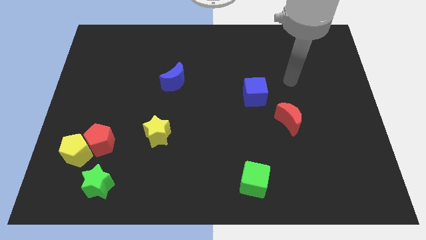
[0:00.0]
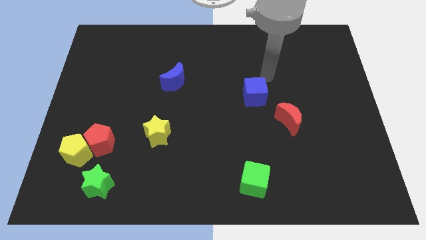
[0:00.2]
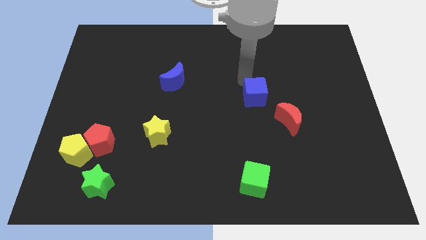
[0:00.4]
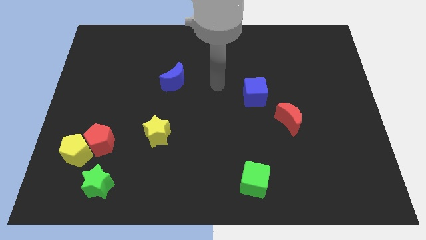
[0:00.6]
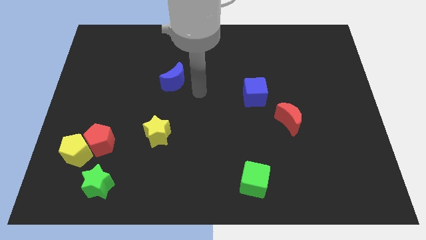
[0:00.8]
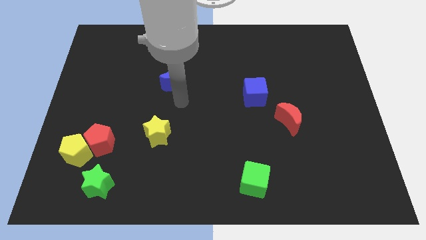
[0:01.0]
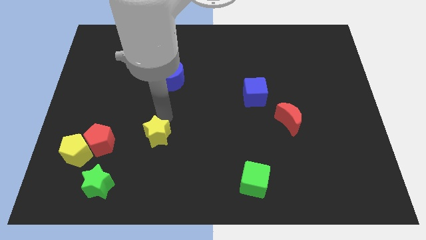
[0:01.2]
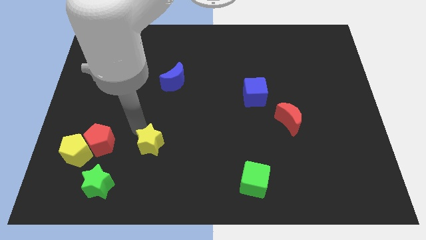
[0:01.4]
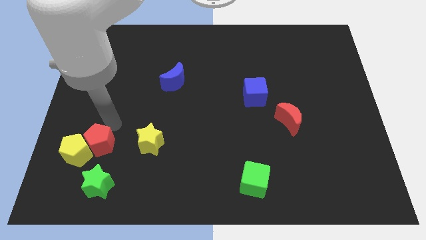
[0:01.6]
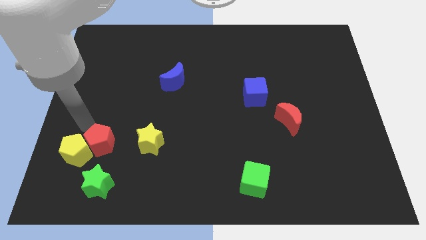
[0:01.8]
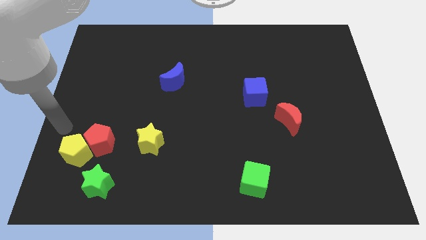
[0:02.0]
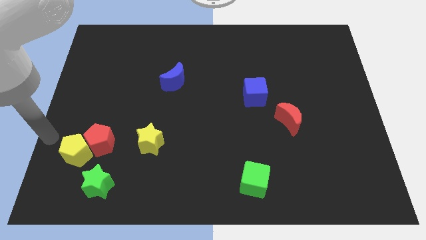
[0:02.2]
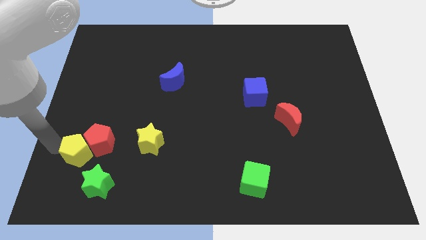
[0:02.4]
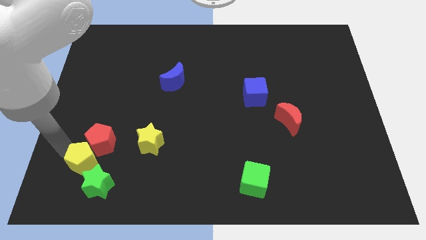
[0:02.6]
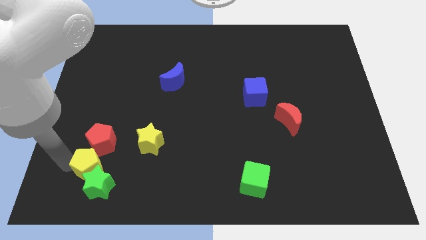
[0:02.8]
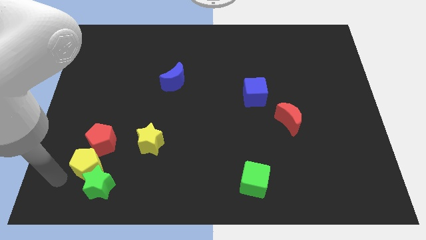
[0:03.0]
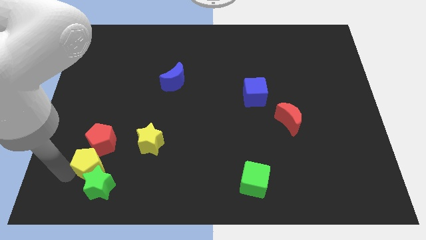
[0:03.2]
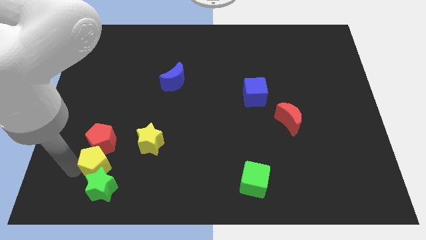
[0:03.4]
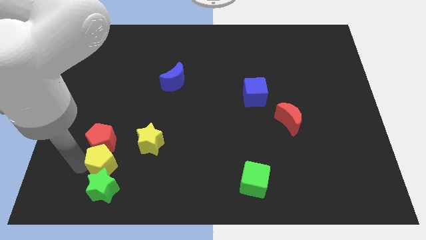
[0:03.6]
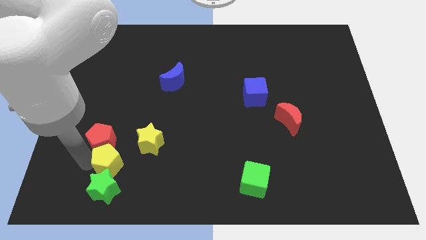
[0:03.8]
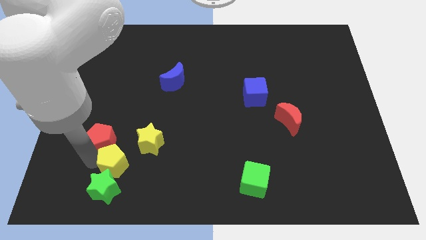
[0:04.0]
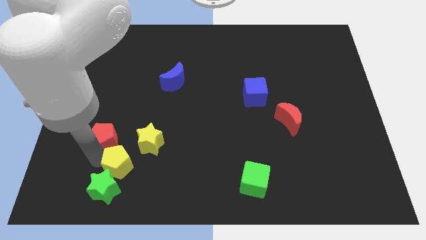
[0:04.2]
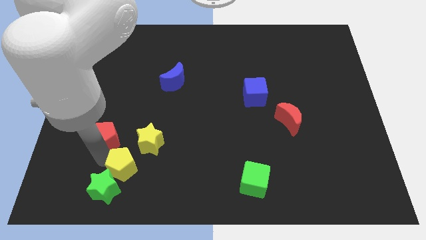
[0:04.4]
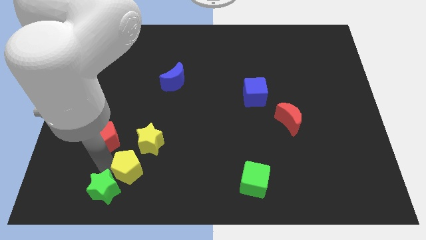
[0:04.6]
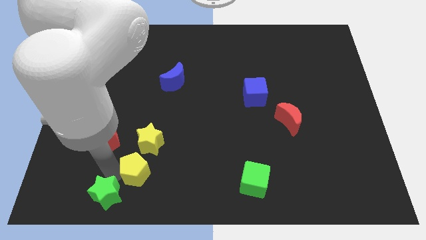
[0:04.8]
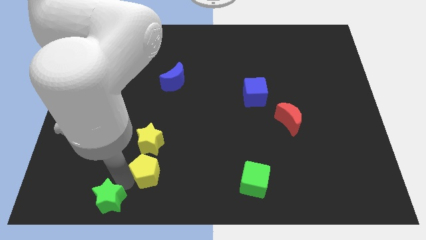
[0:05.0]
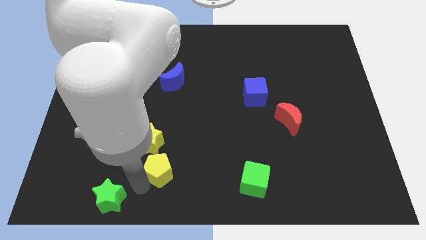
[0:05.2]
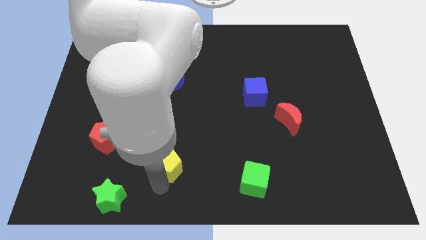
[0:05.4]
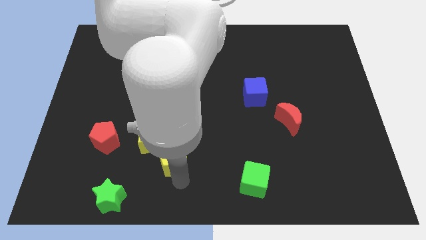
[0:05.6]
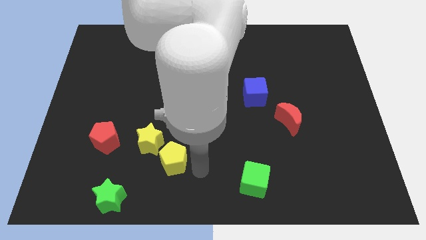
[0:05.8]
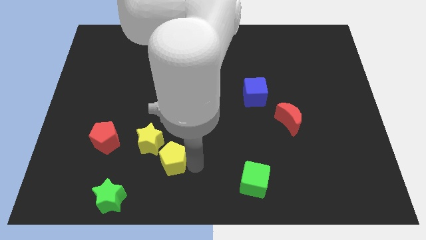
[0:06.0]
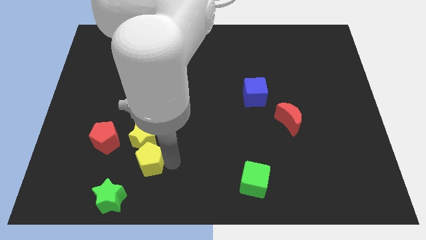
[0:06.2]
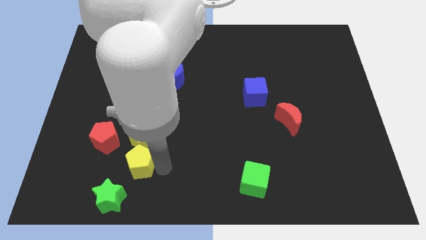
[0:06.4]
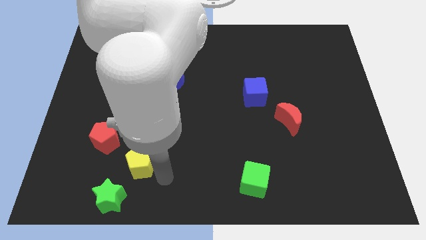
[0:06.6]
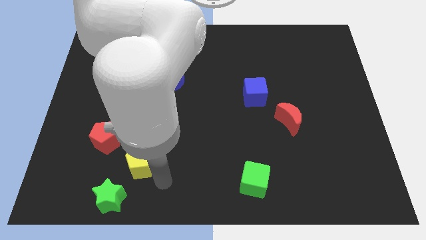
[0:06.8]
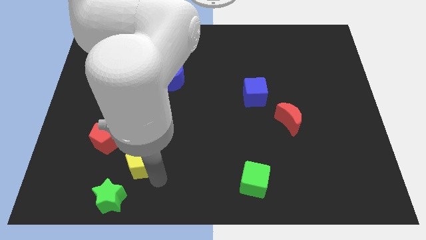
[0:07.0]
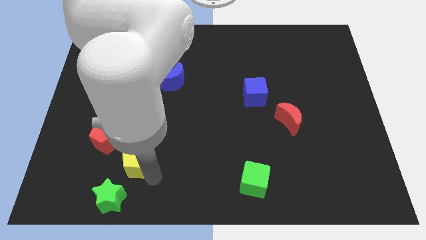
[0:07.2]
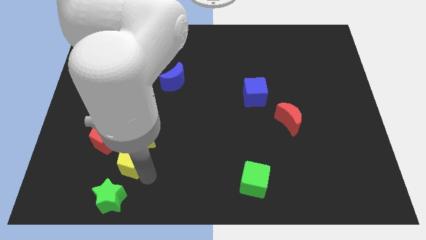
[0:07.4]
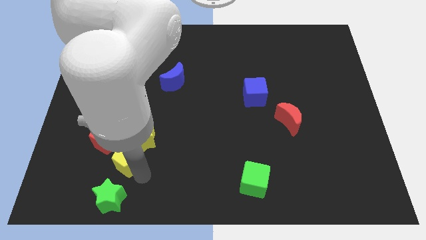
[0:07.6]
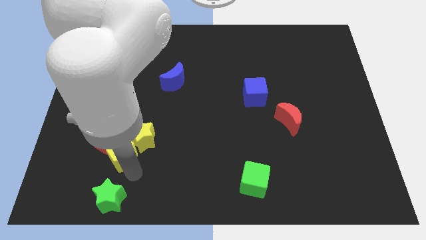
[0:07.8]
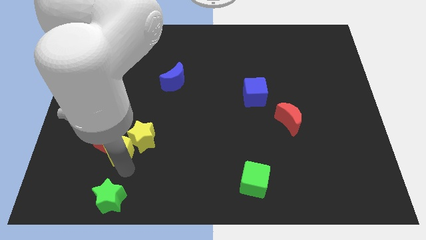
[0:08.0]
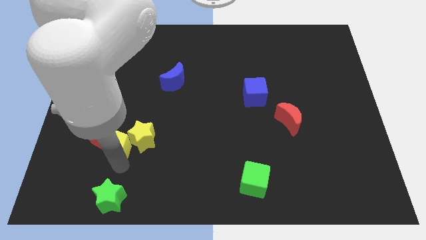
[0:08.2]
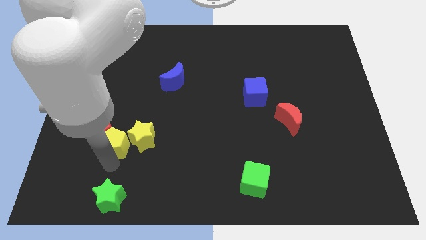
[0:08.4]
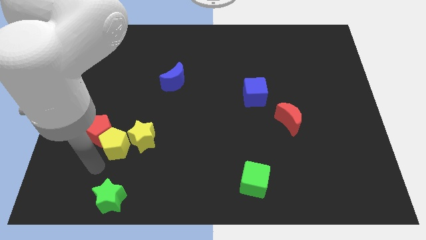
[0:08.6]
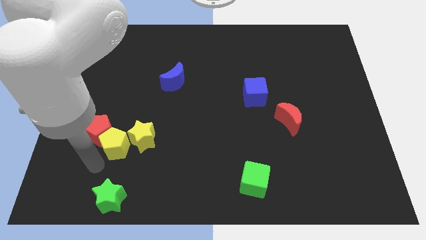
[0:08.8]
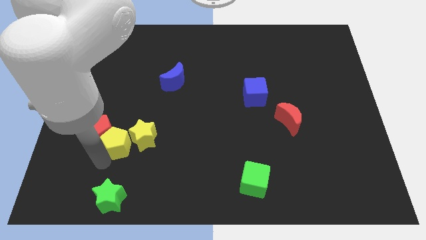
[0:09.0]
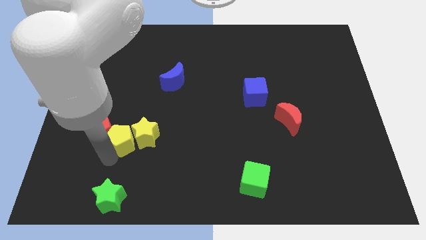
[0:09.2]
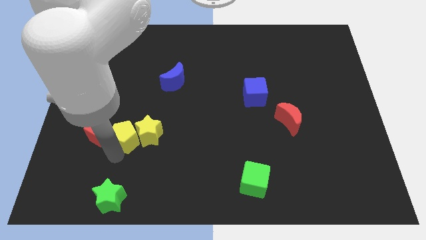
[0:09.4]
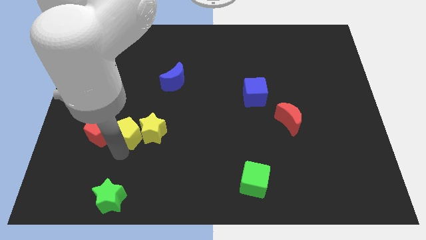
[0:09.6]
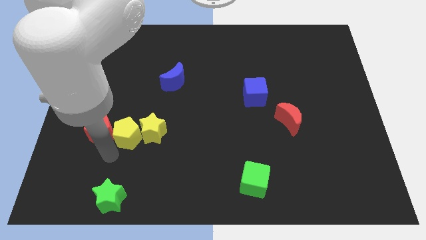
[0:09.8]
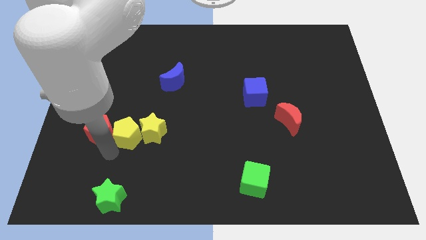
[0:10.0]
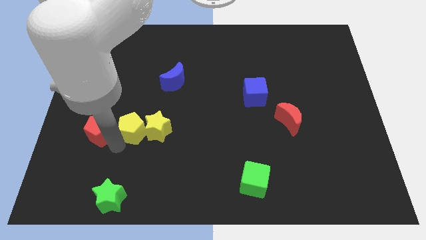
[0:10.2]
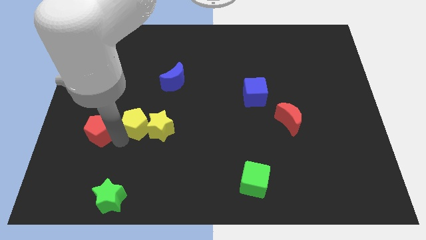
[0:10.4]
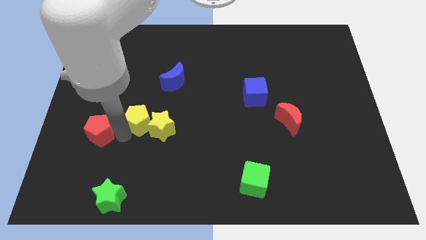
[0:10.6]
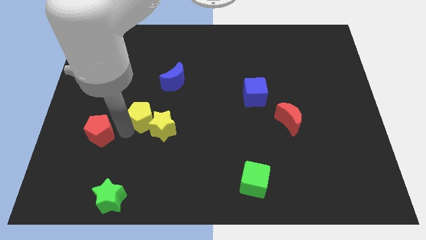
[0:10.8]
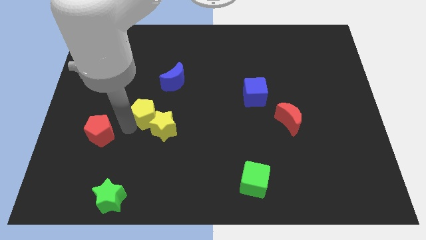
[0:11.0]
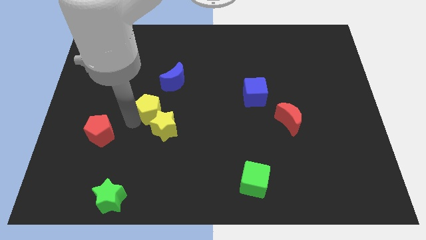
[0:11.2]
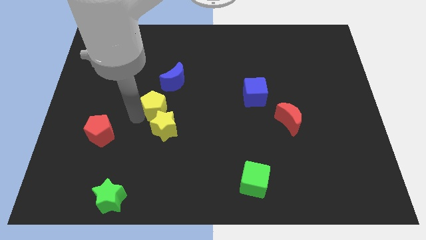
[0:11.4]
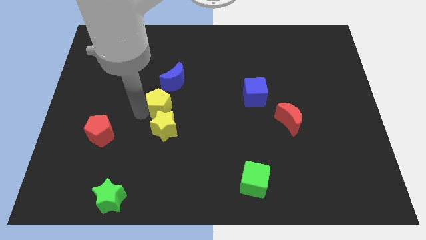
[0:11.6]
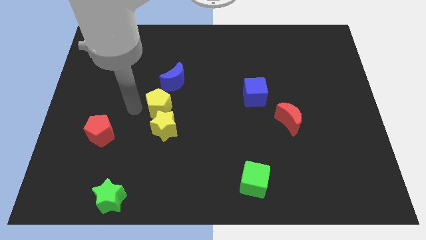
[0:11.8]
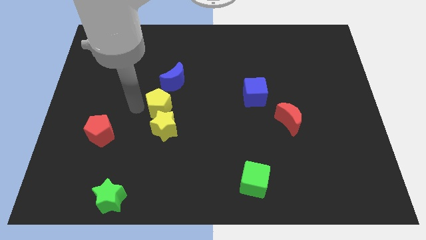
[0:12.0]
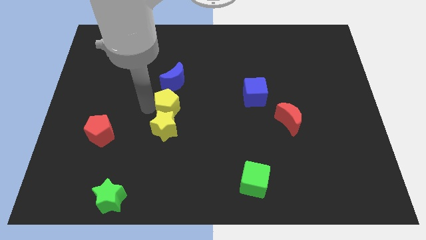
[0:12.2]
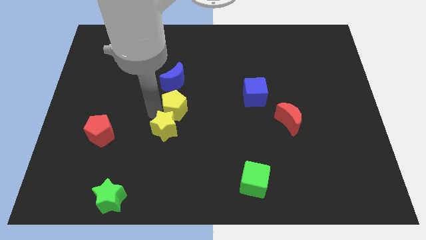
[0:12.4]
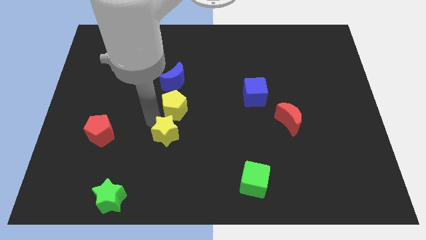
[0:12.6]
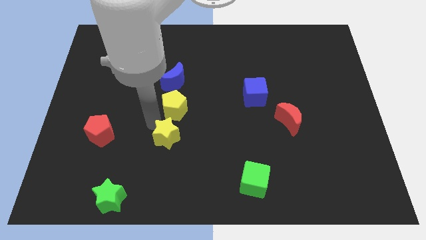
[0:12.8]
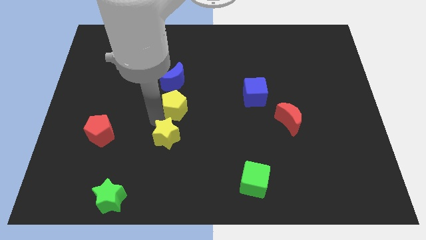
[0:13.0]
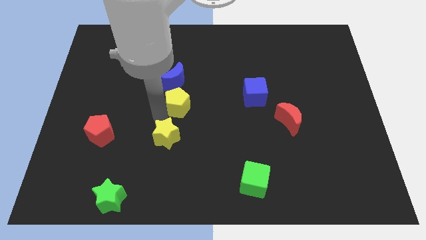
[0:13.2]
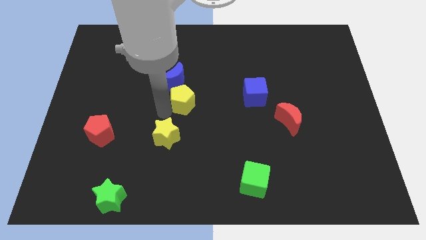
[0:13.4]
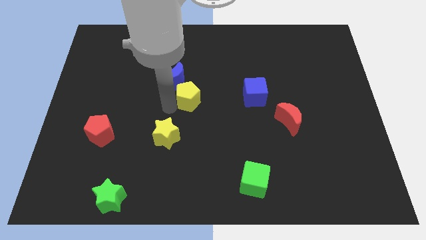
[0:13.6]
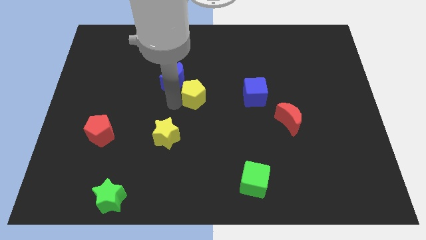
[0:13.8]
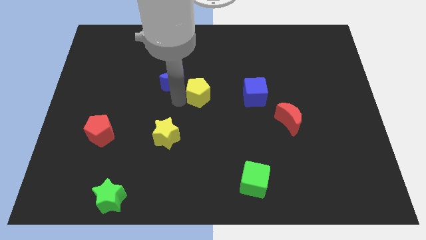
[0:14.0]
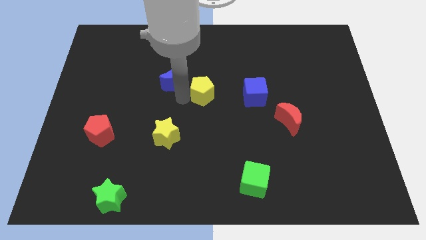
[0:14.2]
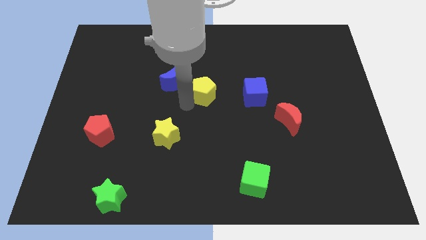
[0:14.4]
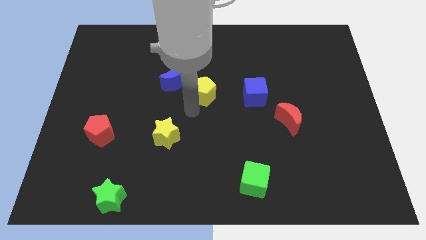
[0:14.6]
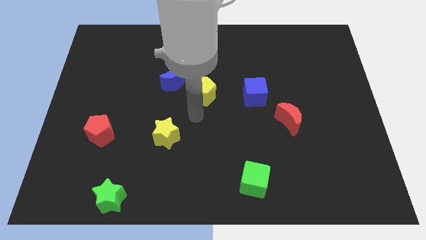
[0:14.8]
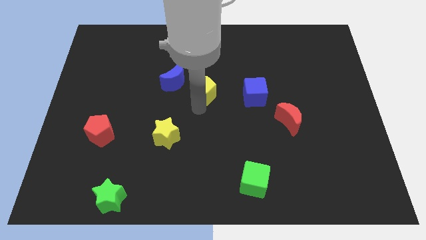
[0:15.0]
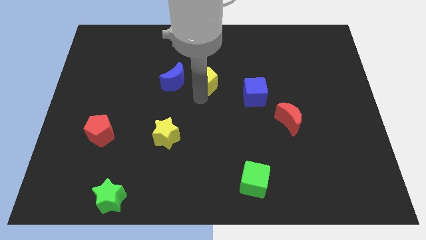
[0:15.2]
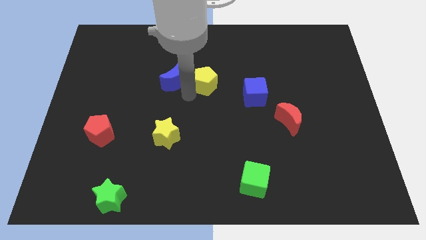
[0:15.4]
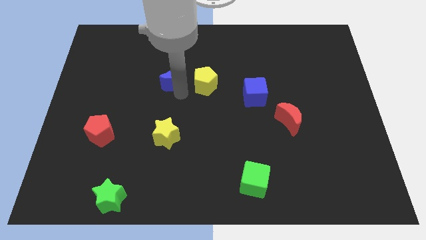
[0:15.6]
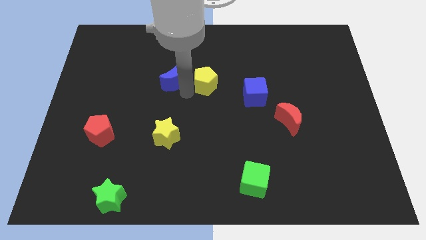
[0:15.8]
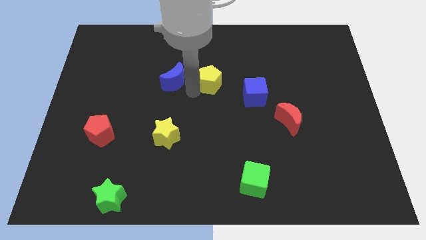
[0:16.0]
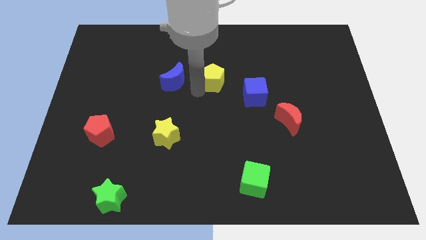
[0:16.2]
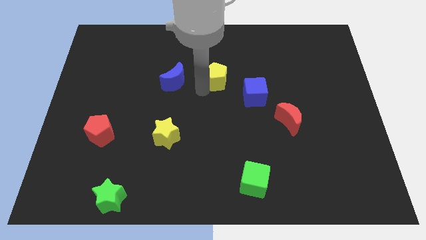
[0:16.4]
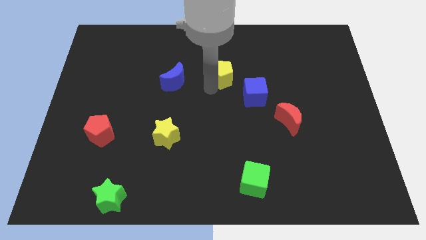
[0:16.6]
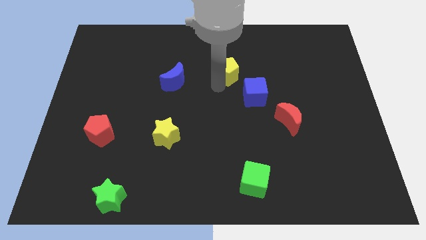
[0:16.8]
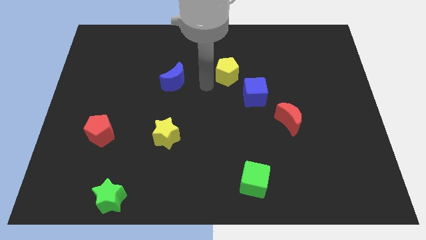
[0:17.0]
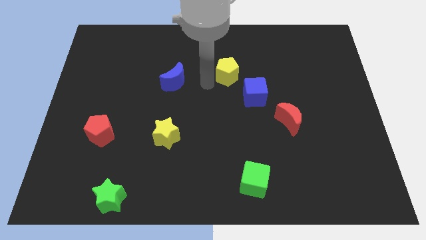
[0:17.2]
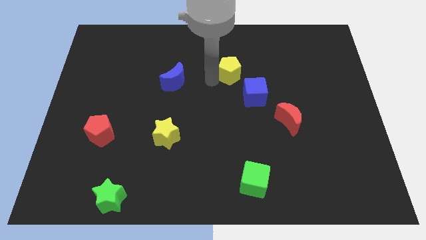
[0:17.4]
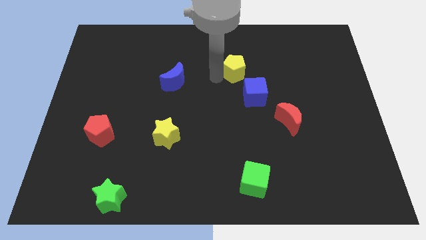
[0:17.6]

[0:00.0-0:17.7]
push the yellow pentagon to the top side of the blue cube
